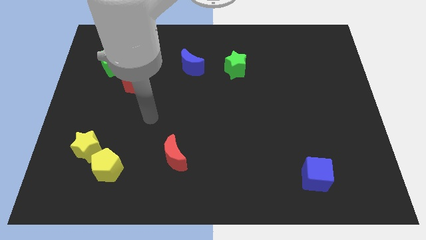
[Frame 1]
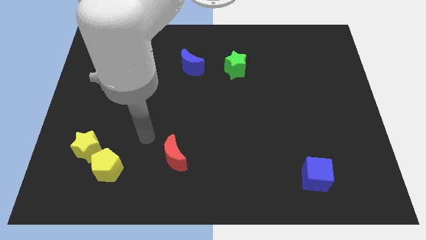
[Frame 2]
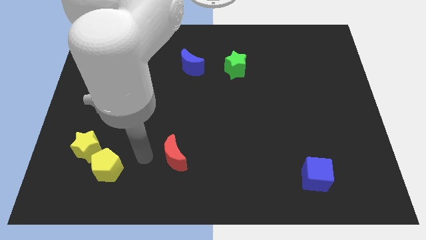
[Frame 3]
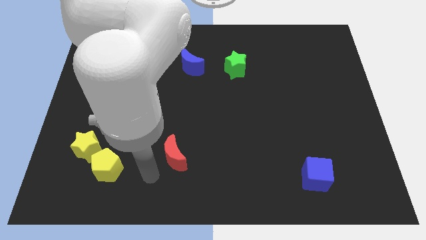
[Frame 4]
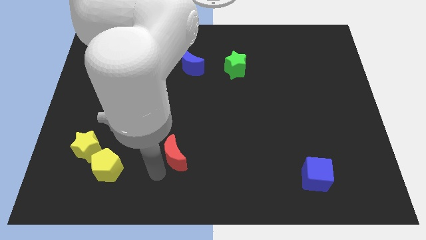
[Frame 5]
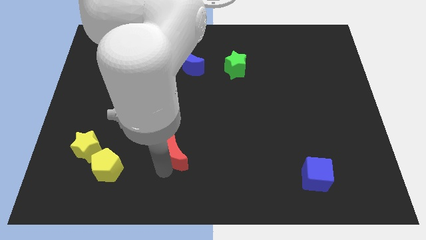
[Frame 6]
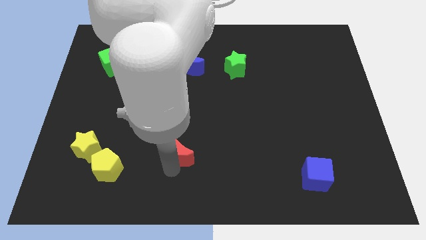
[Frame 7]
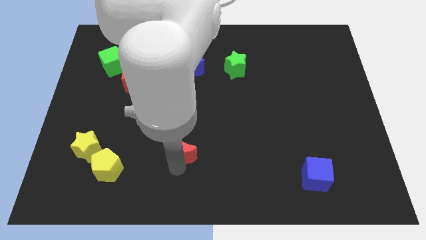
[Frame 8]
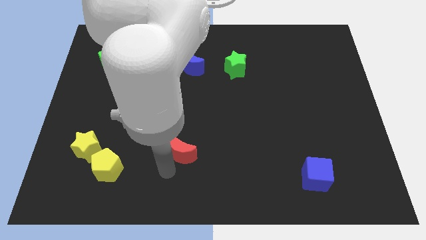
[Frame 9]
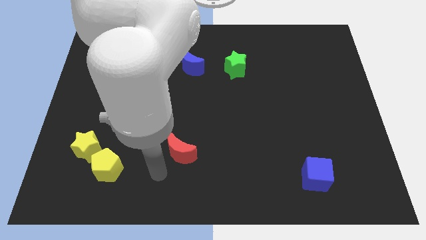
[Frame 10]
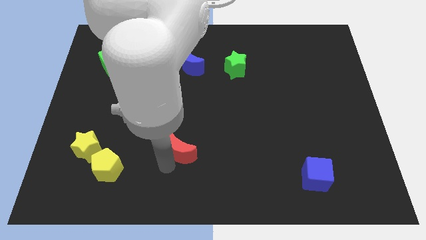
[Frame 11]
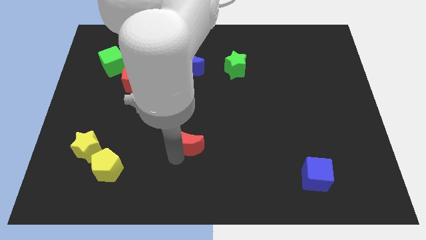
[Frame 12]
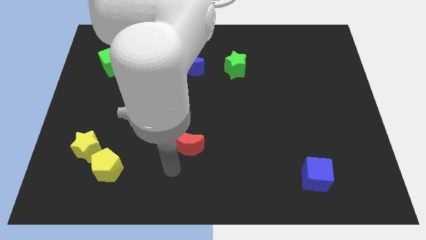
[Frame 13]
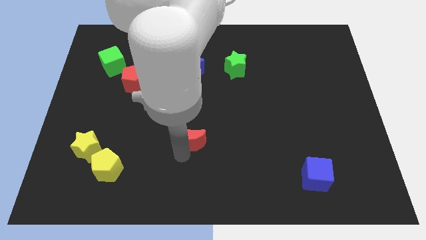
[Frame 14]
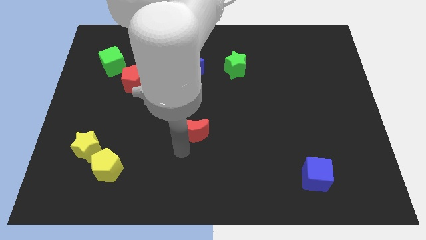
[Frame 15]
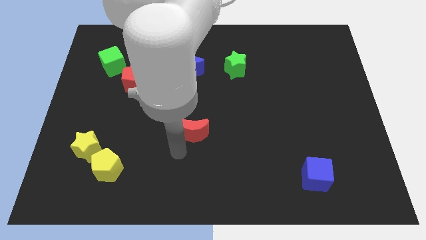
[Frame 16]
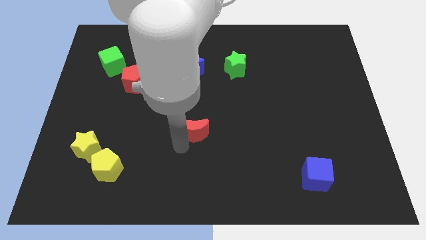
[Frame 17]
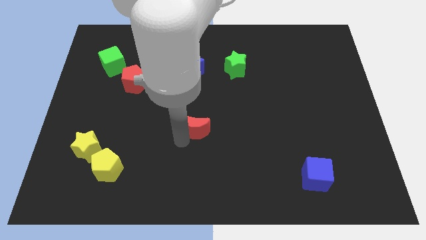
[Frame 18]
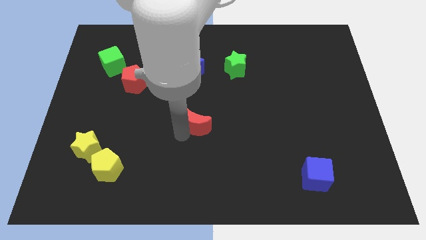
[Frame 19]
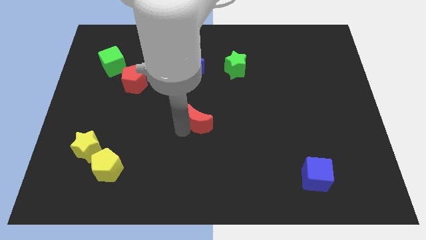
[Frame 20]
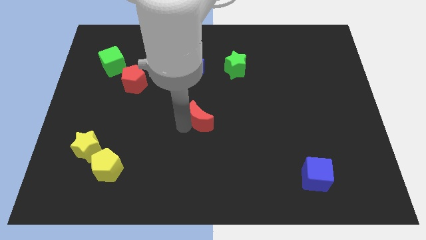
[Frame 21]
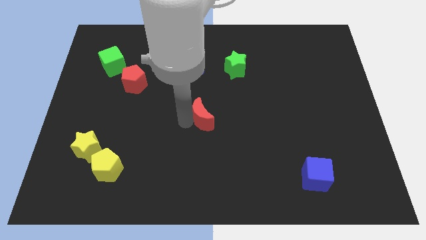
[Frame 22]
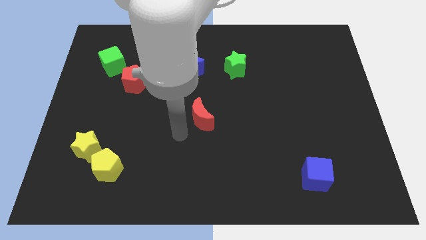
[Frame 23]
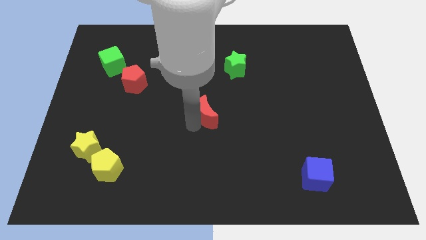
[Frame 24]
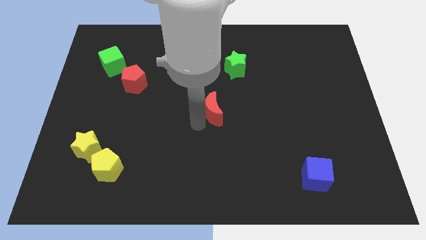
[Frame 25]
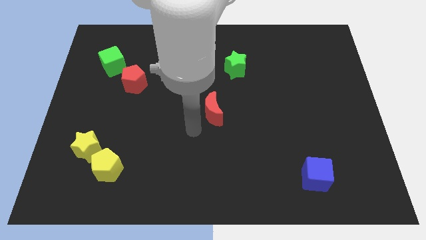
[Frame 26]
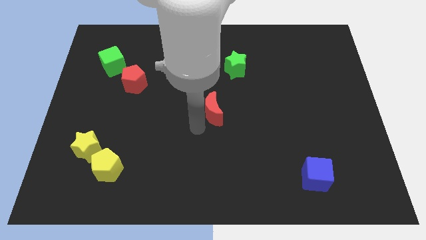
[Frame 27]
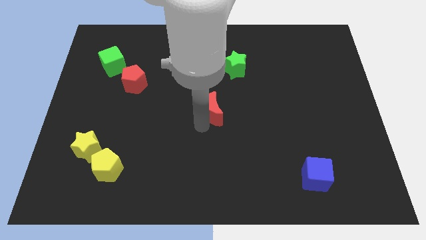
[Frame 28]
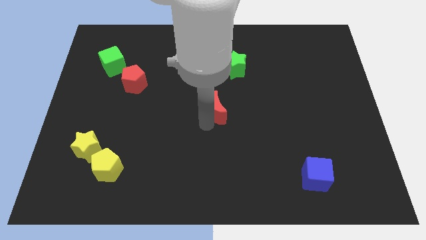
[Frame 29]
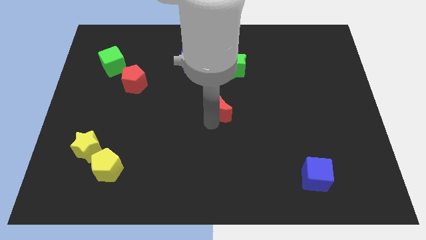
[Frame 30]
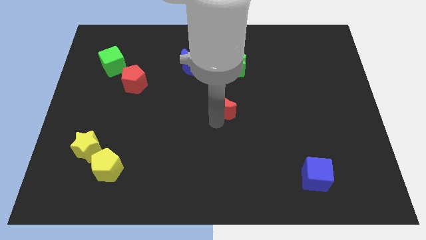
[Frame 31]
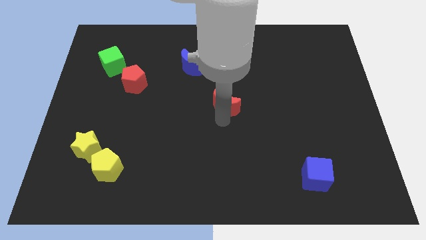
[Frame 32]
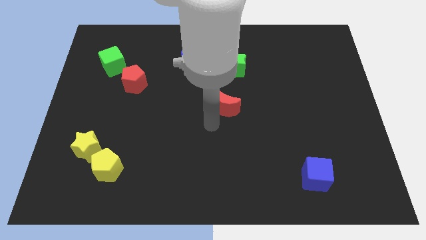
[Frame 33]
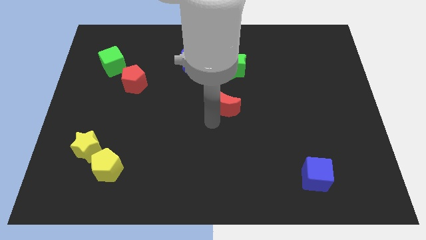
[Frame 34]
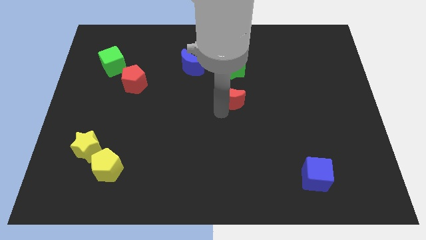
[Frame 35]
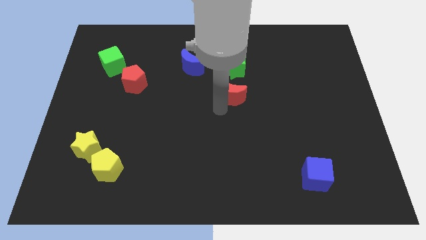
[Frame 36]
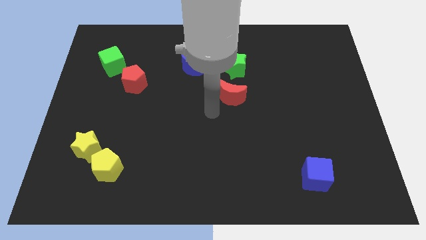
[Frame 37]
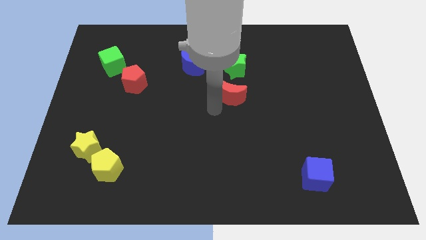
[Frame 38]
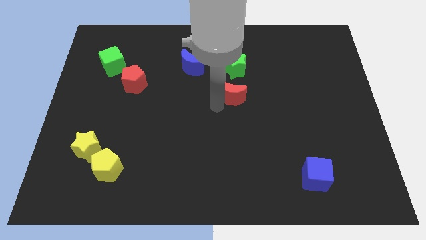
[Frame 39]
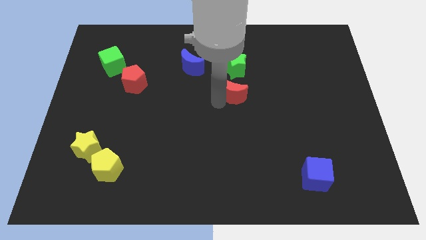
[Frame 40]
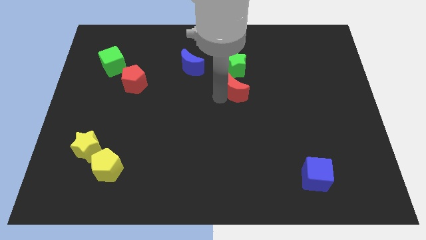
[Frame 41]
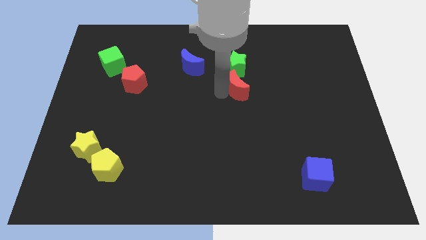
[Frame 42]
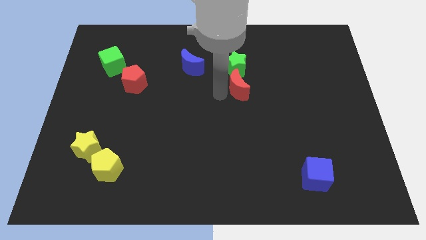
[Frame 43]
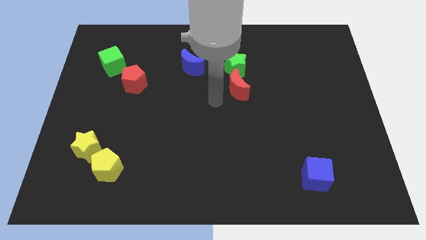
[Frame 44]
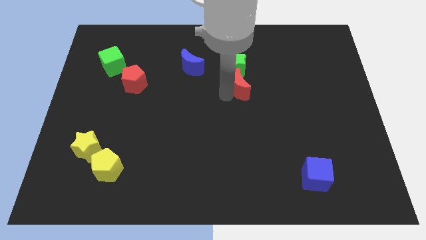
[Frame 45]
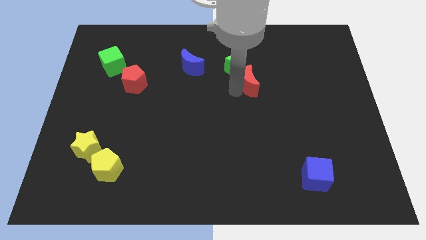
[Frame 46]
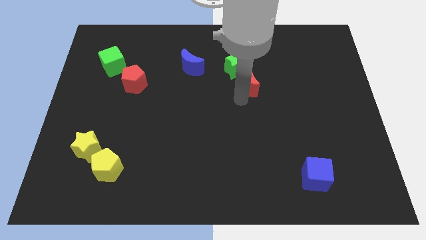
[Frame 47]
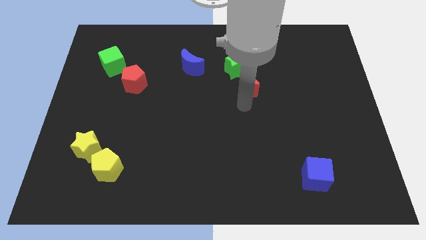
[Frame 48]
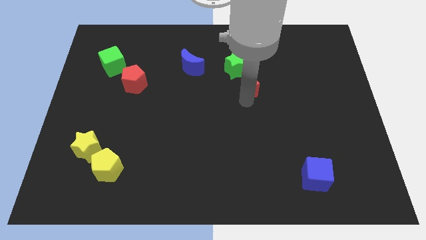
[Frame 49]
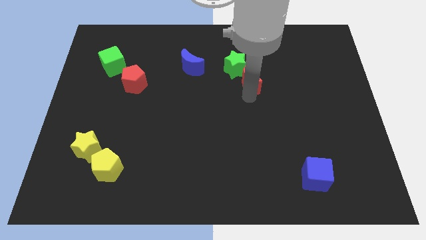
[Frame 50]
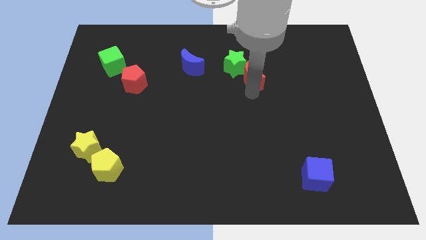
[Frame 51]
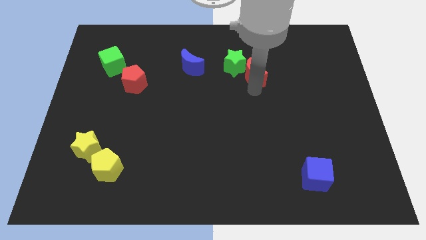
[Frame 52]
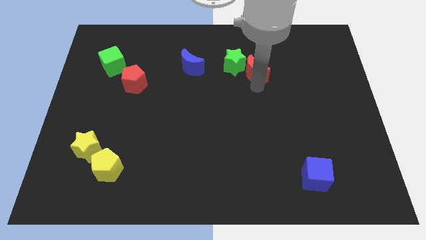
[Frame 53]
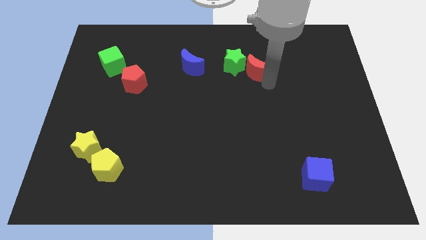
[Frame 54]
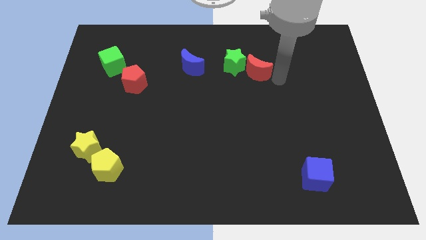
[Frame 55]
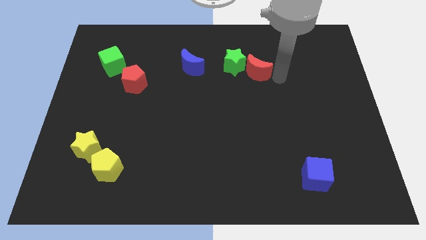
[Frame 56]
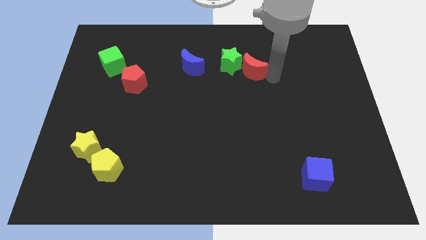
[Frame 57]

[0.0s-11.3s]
push the red moon right of the blue moon

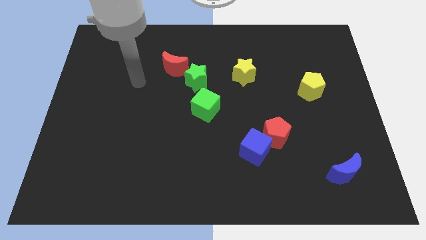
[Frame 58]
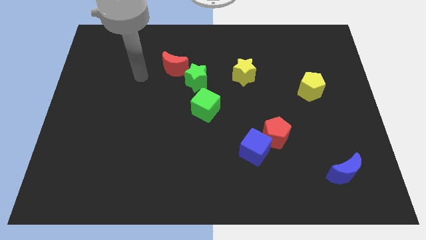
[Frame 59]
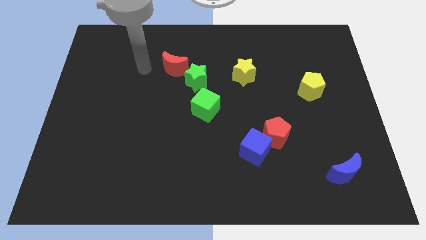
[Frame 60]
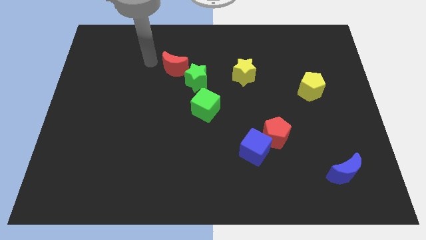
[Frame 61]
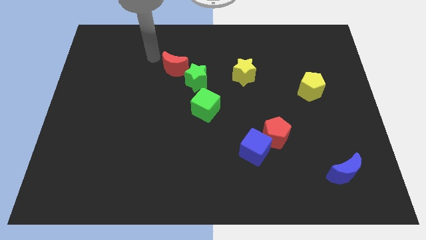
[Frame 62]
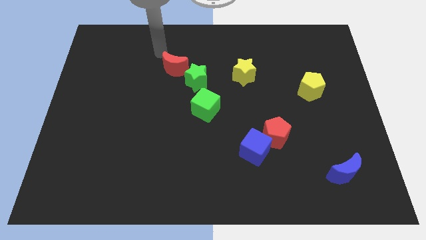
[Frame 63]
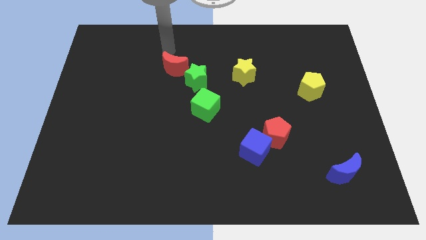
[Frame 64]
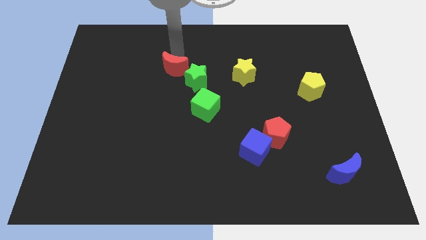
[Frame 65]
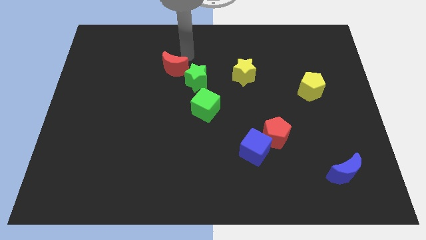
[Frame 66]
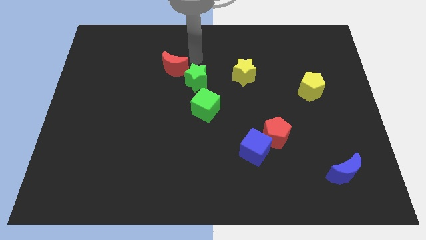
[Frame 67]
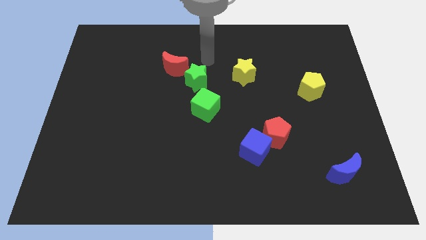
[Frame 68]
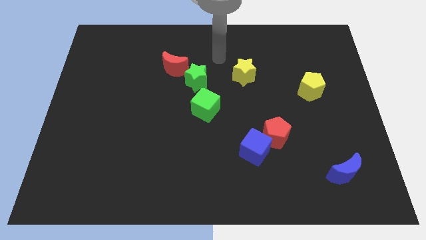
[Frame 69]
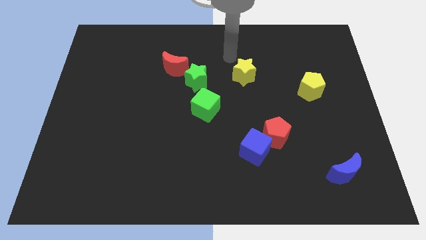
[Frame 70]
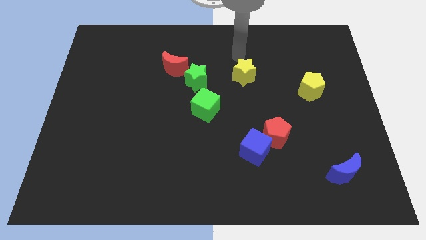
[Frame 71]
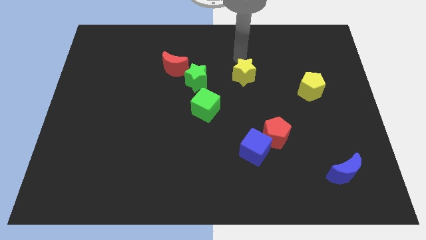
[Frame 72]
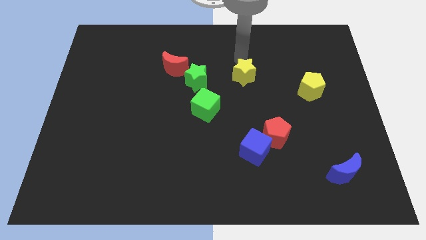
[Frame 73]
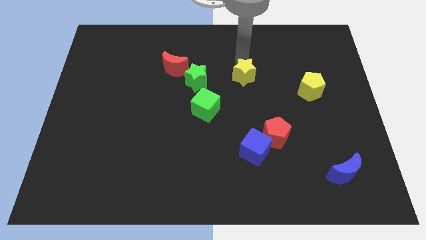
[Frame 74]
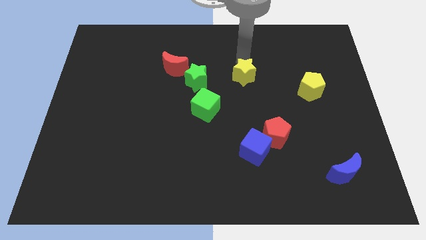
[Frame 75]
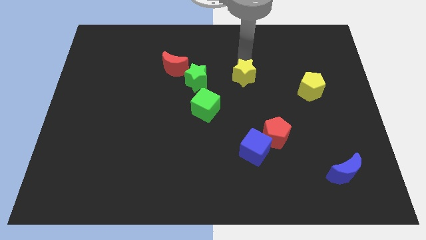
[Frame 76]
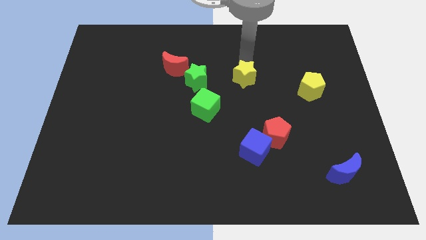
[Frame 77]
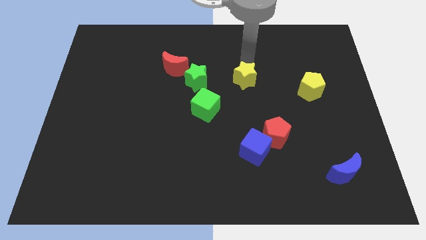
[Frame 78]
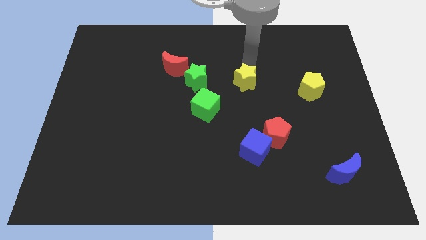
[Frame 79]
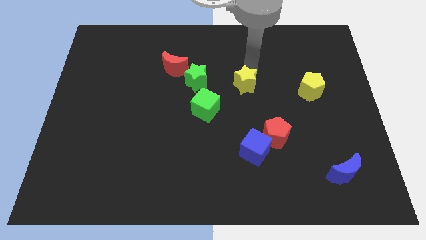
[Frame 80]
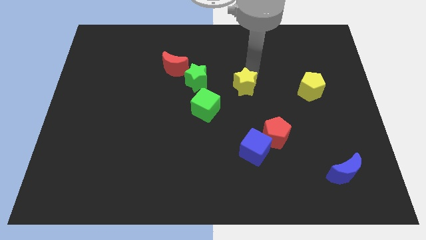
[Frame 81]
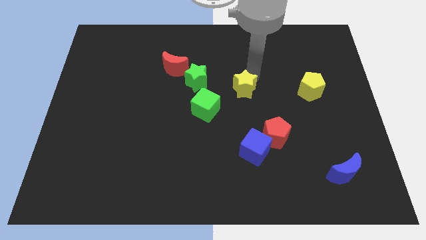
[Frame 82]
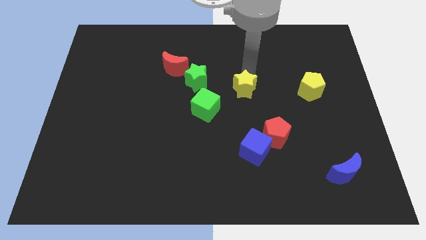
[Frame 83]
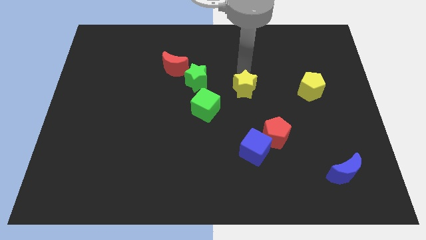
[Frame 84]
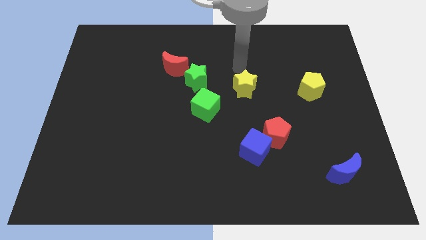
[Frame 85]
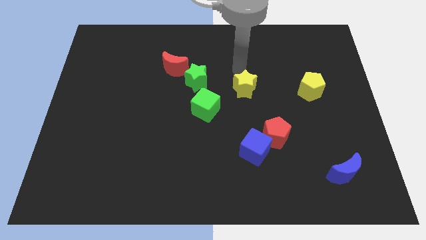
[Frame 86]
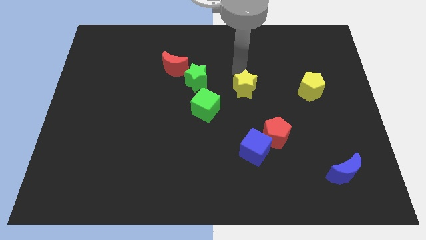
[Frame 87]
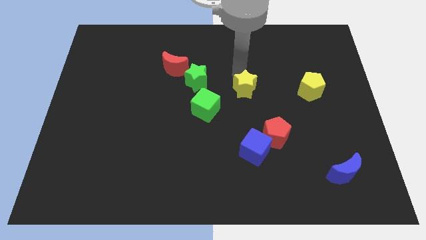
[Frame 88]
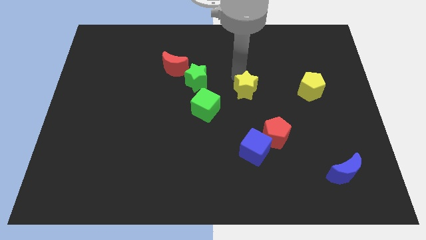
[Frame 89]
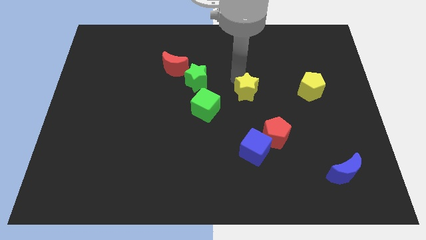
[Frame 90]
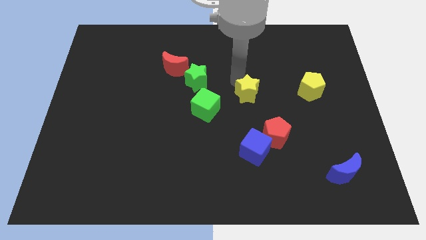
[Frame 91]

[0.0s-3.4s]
push the yellow star to the top side of the blue cube
